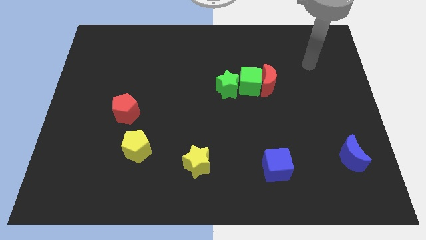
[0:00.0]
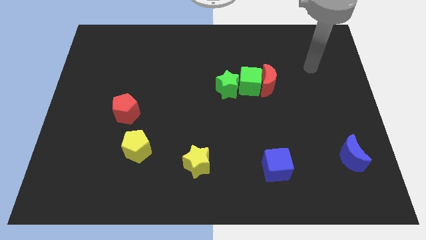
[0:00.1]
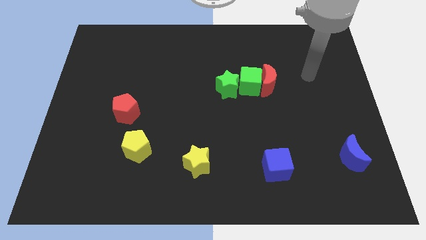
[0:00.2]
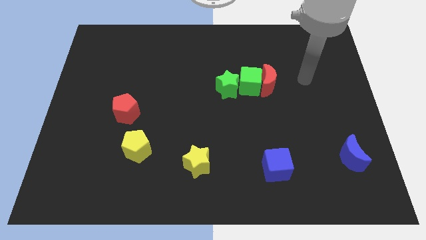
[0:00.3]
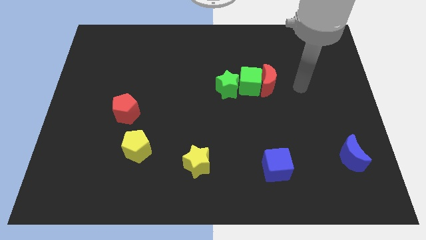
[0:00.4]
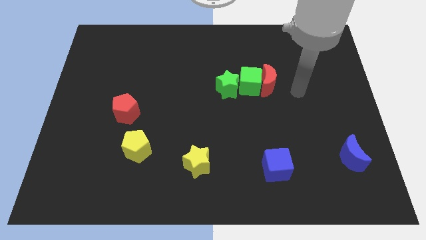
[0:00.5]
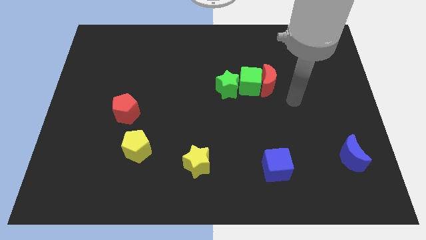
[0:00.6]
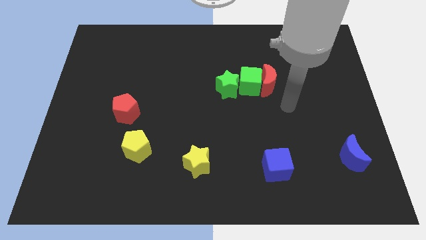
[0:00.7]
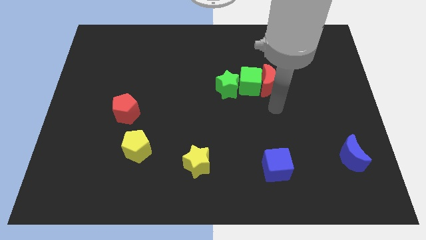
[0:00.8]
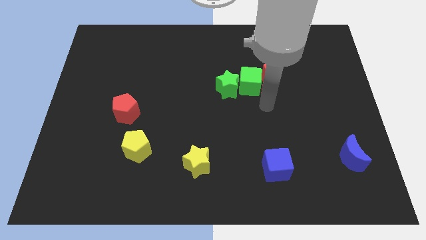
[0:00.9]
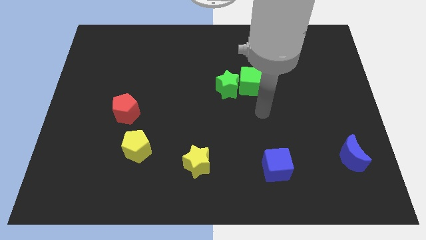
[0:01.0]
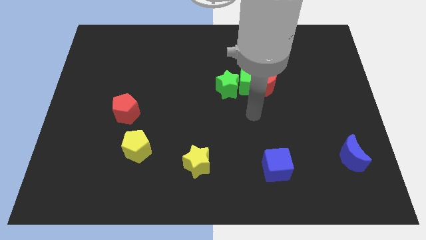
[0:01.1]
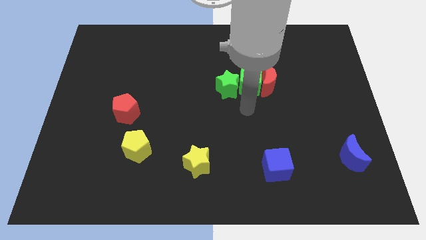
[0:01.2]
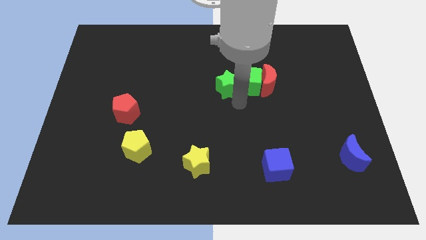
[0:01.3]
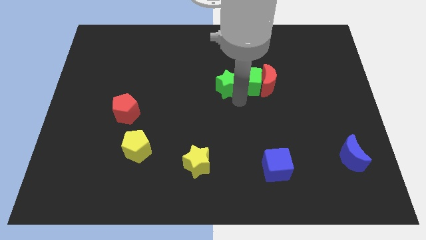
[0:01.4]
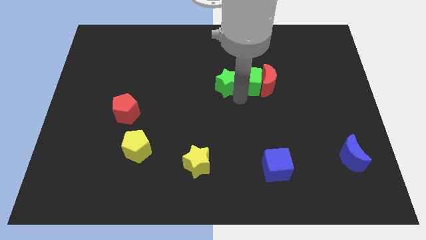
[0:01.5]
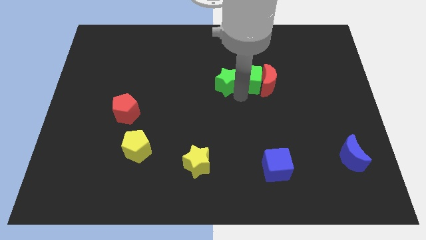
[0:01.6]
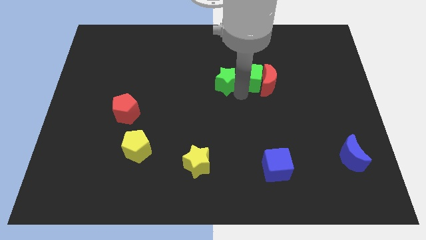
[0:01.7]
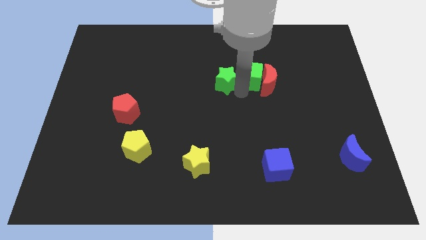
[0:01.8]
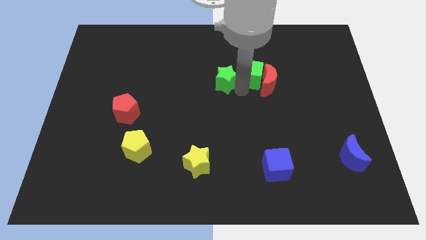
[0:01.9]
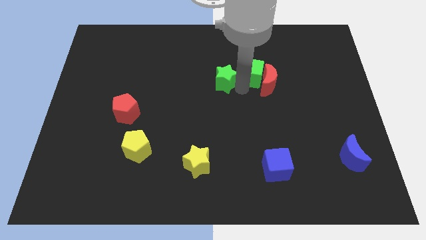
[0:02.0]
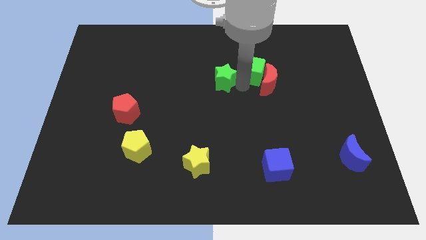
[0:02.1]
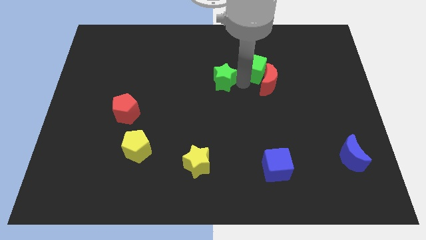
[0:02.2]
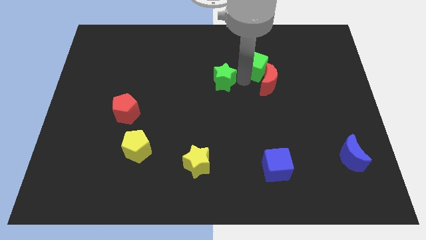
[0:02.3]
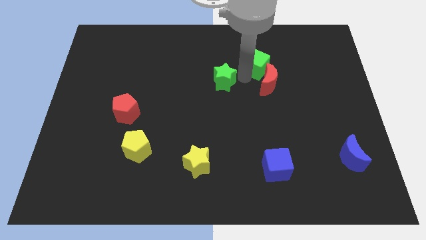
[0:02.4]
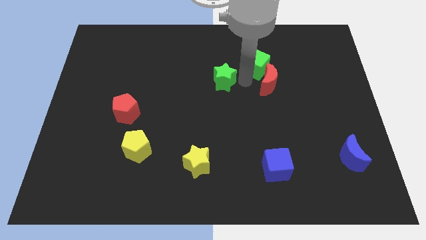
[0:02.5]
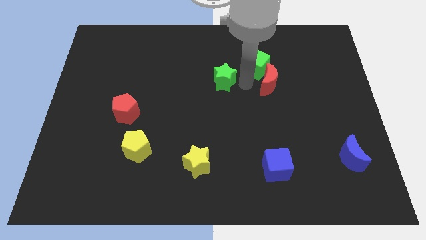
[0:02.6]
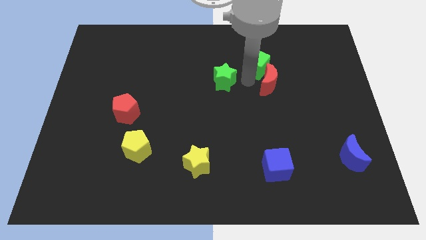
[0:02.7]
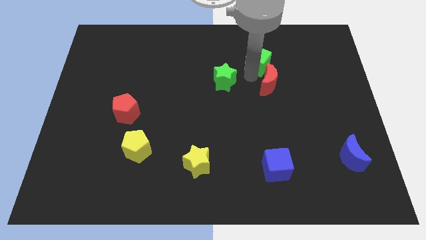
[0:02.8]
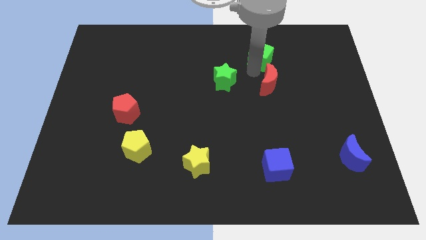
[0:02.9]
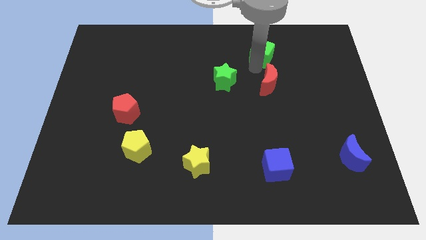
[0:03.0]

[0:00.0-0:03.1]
move the green cube away from the red moon and green star

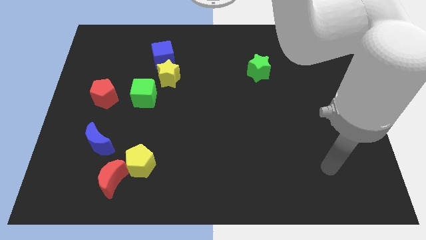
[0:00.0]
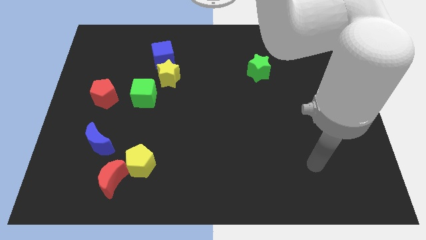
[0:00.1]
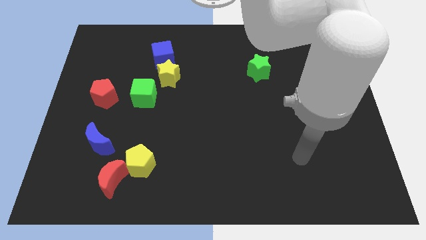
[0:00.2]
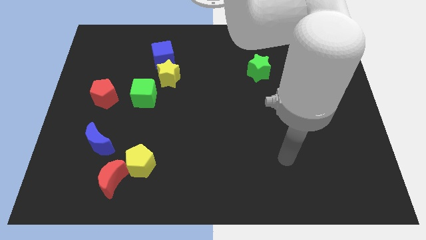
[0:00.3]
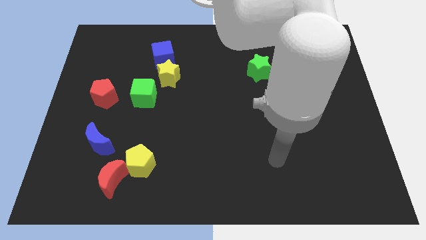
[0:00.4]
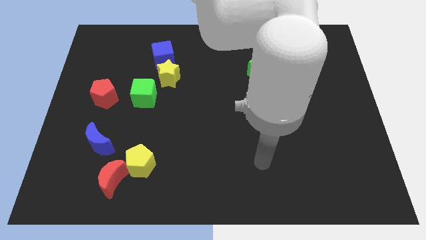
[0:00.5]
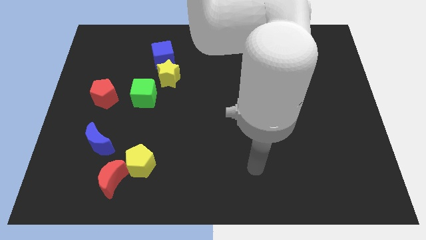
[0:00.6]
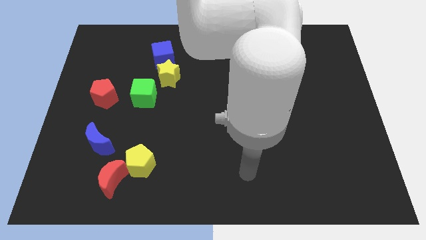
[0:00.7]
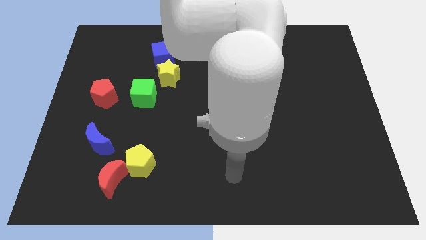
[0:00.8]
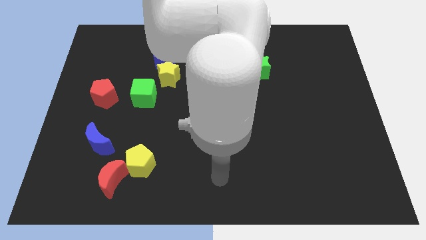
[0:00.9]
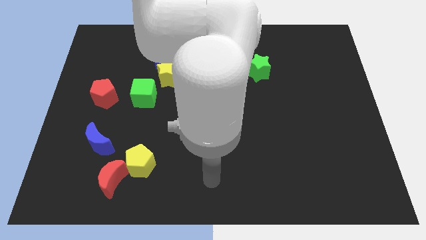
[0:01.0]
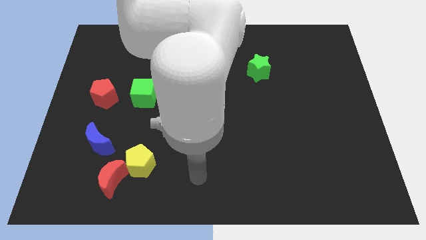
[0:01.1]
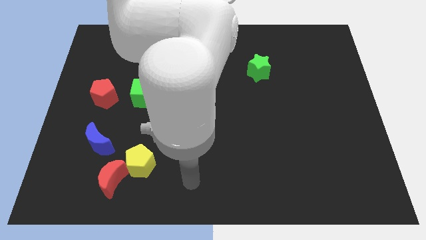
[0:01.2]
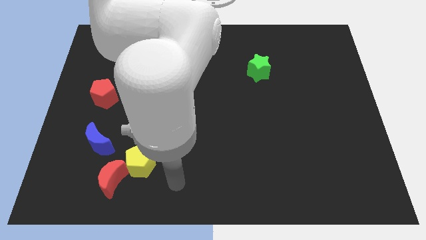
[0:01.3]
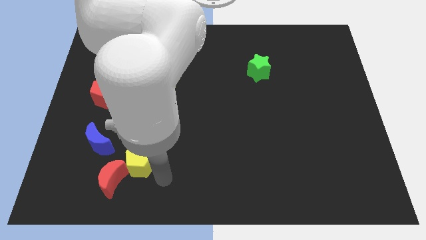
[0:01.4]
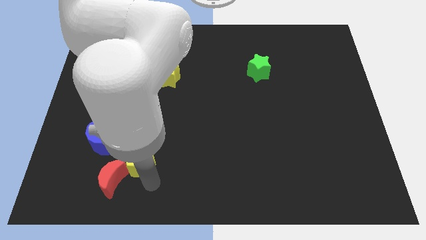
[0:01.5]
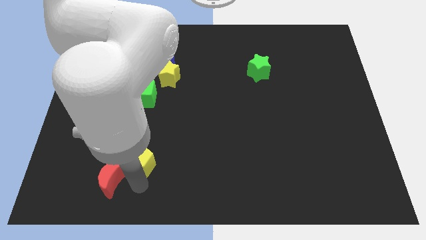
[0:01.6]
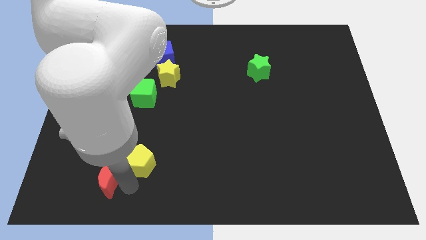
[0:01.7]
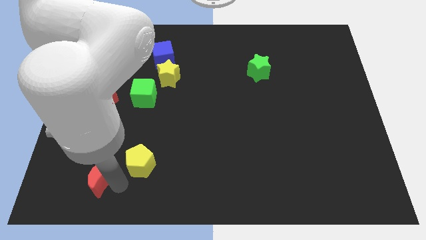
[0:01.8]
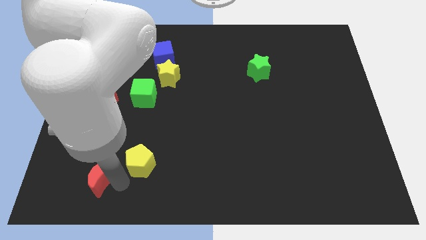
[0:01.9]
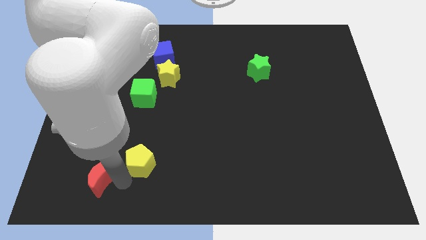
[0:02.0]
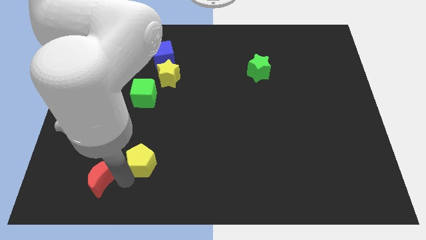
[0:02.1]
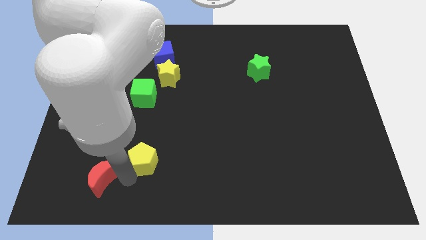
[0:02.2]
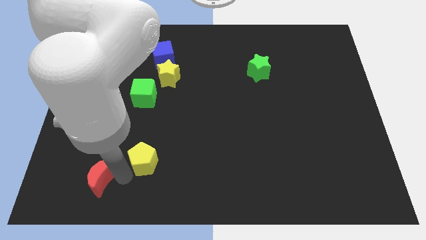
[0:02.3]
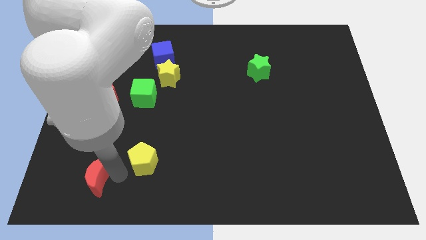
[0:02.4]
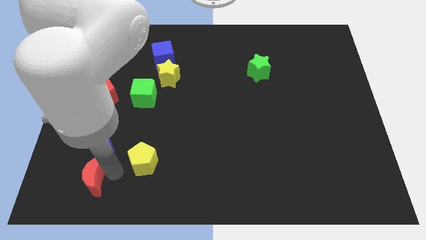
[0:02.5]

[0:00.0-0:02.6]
move the yellow pentagon away from the red moon

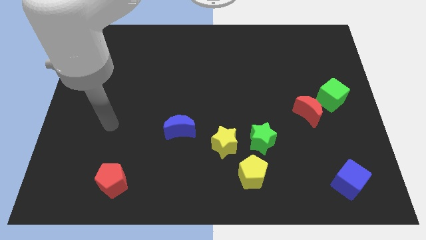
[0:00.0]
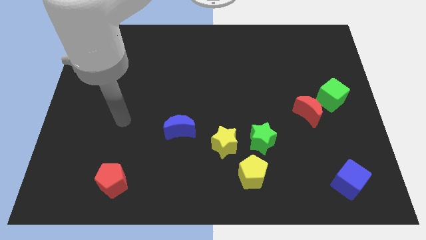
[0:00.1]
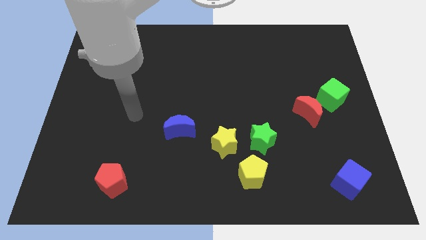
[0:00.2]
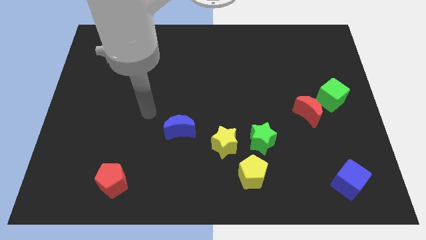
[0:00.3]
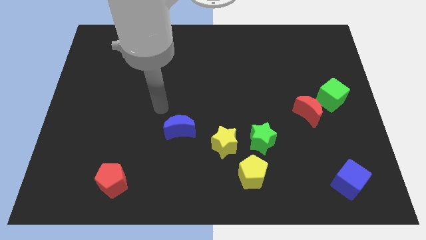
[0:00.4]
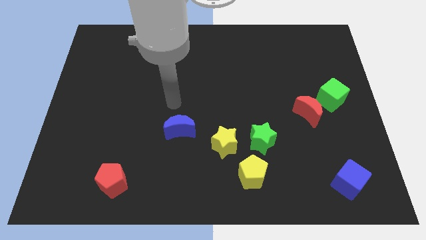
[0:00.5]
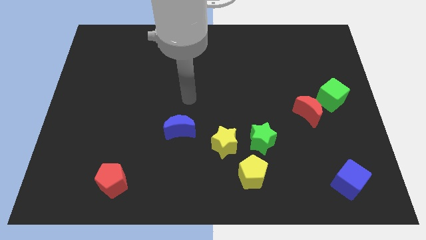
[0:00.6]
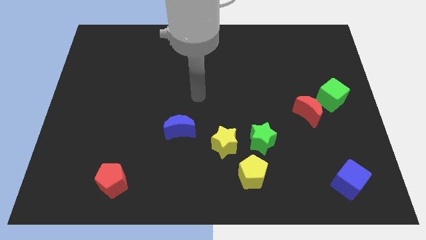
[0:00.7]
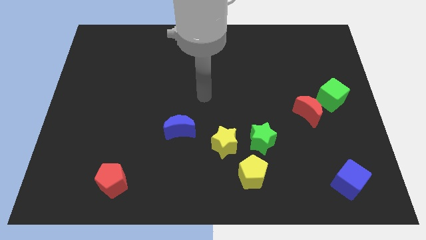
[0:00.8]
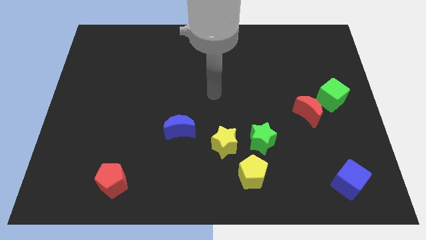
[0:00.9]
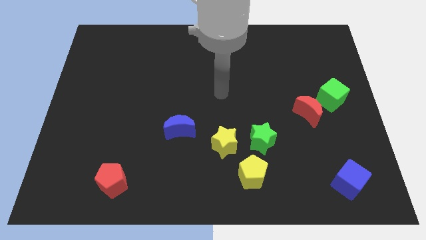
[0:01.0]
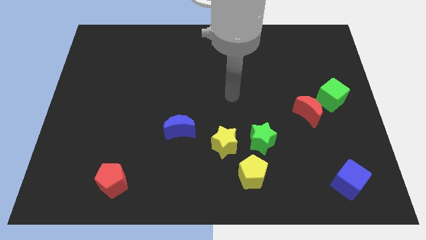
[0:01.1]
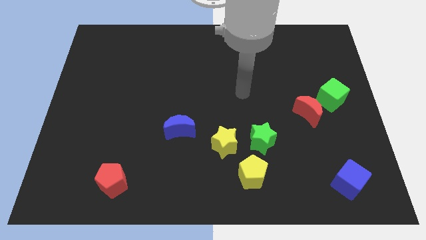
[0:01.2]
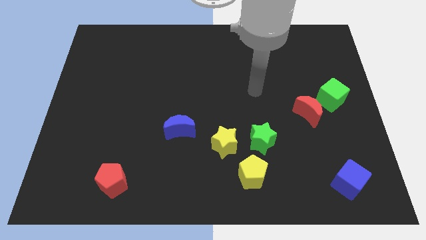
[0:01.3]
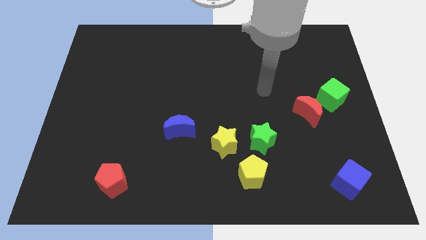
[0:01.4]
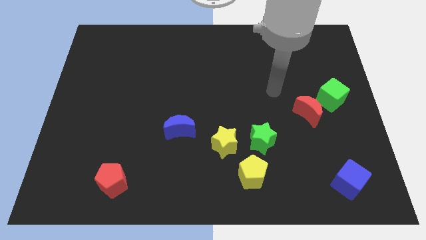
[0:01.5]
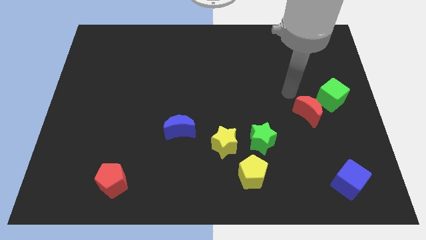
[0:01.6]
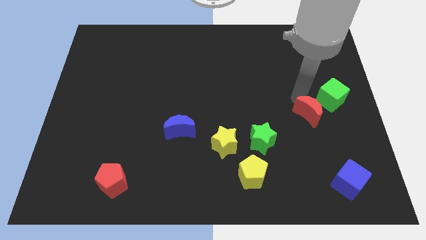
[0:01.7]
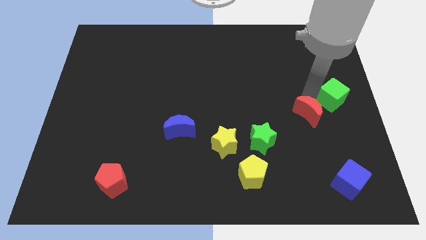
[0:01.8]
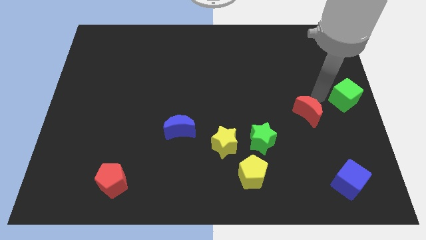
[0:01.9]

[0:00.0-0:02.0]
pull the red moon apart from the green cube

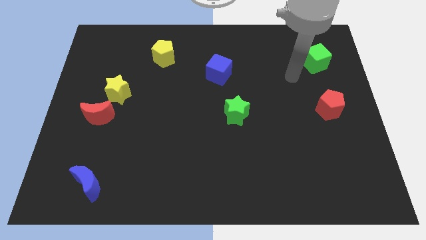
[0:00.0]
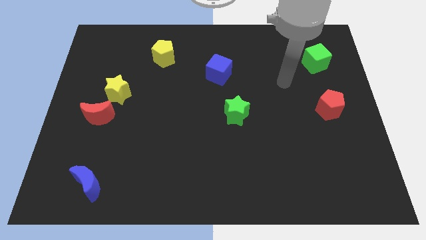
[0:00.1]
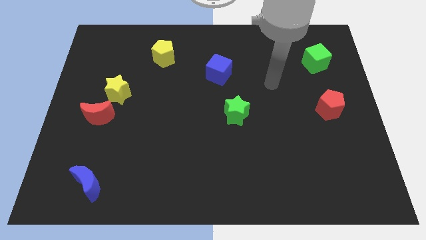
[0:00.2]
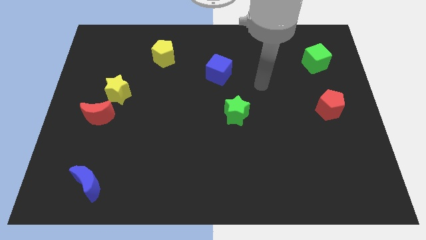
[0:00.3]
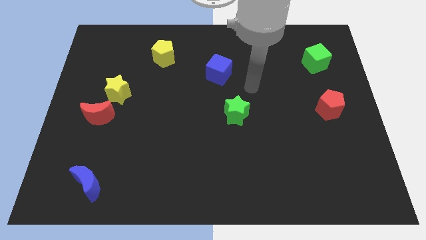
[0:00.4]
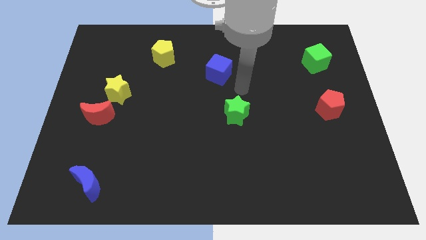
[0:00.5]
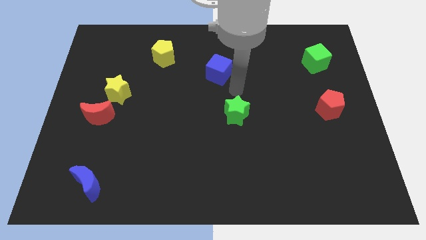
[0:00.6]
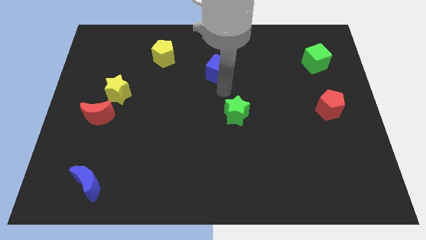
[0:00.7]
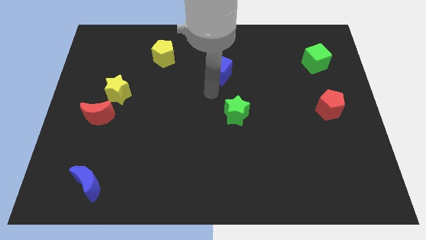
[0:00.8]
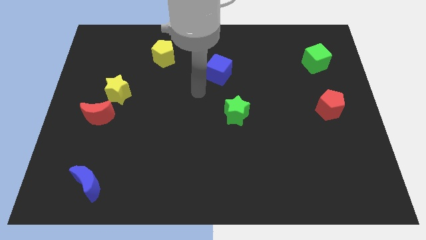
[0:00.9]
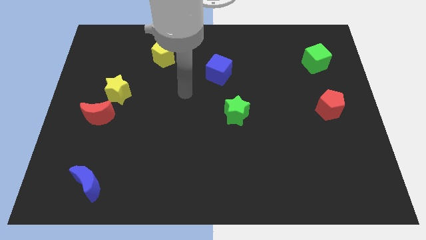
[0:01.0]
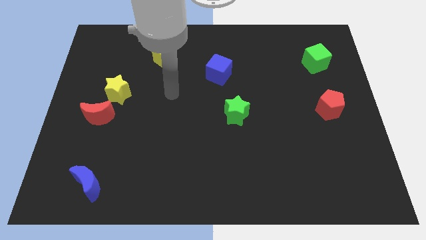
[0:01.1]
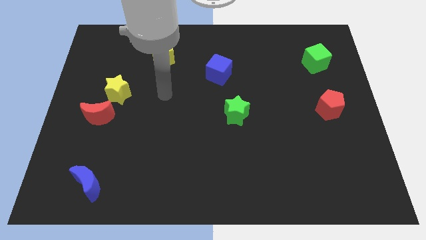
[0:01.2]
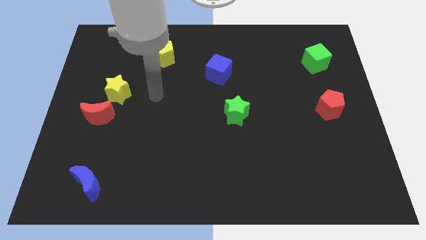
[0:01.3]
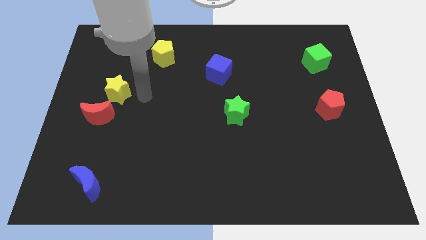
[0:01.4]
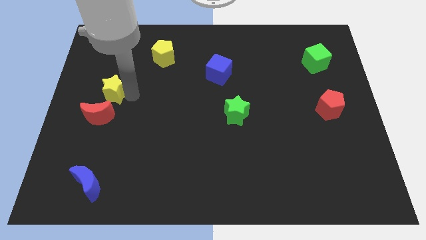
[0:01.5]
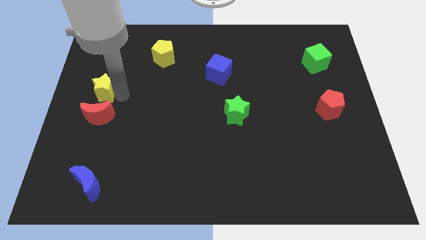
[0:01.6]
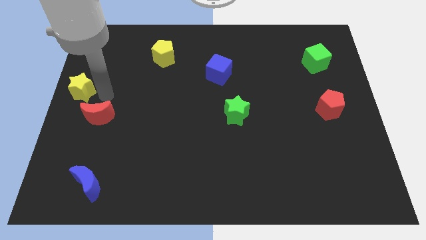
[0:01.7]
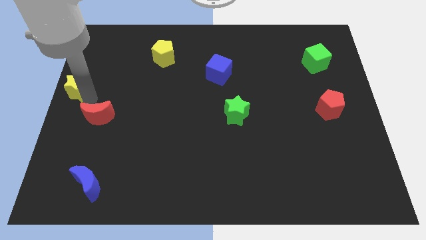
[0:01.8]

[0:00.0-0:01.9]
move the red moon away from the yellow star
